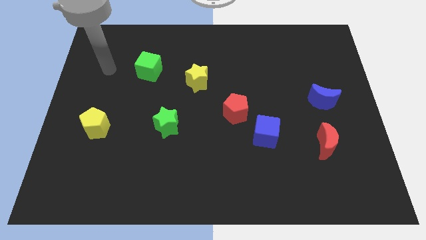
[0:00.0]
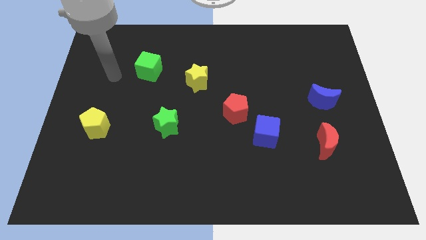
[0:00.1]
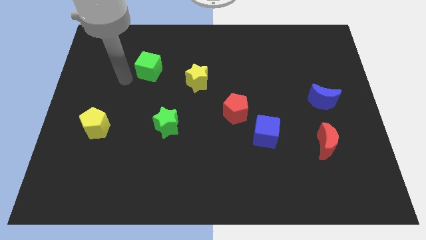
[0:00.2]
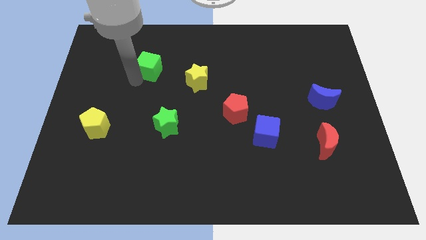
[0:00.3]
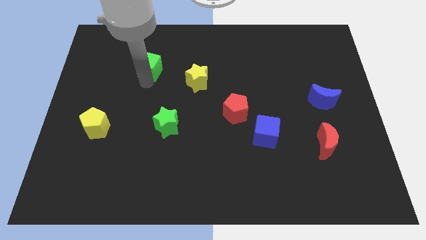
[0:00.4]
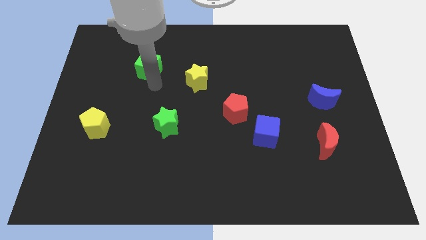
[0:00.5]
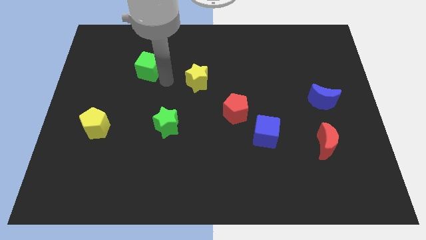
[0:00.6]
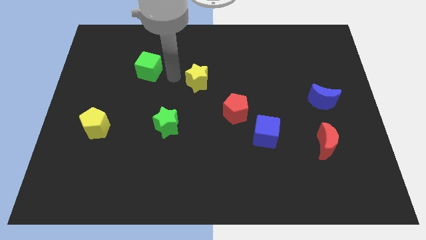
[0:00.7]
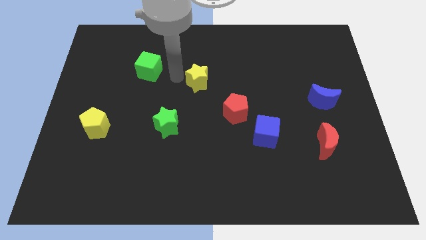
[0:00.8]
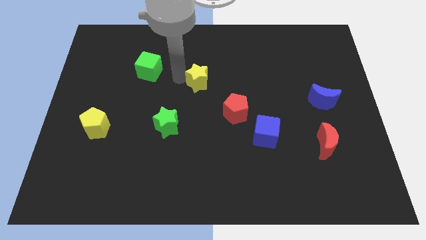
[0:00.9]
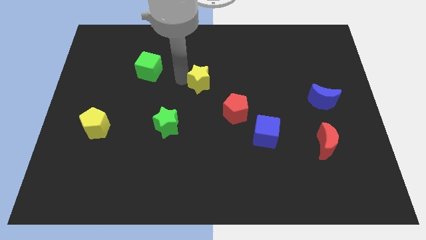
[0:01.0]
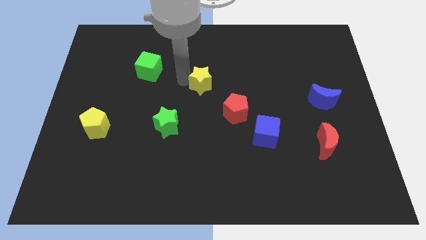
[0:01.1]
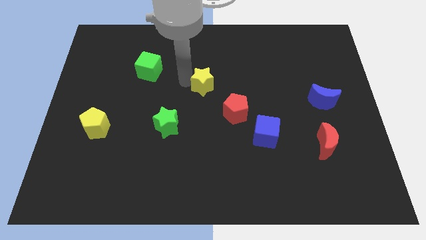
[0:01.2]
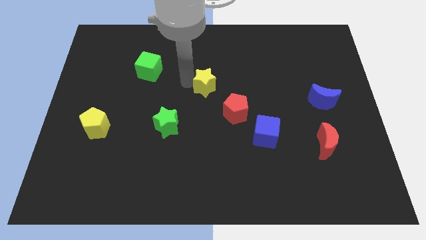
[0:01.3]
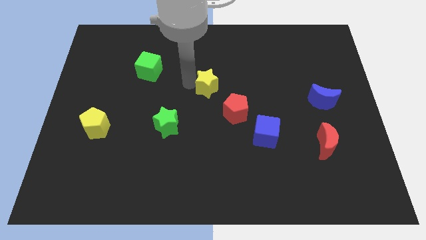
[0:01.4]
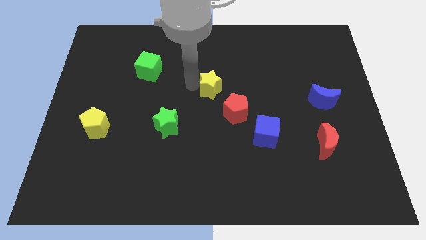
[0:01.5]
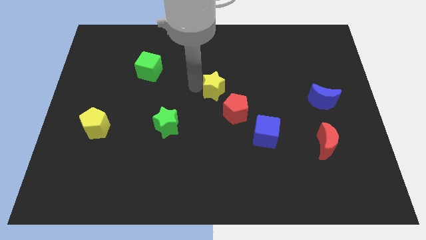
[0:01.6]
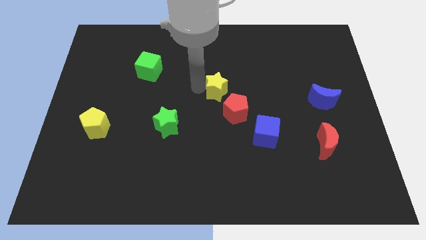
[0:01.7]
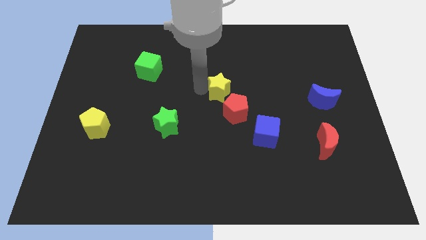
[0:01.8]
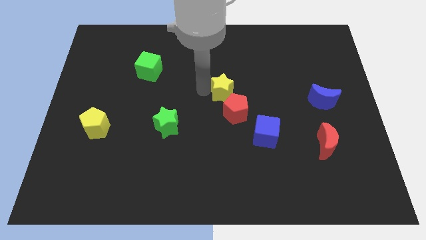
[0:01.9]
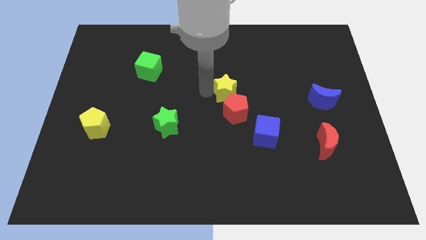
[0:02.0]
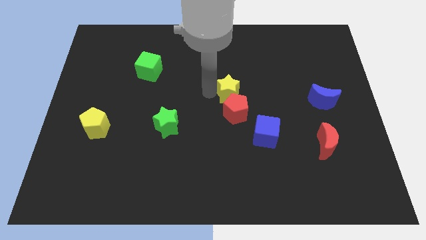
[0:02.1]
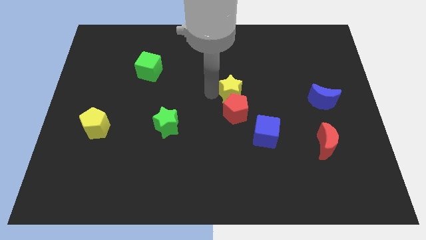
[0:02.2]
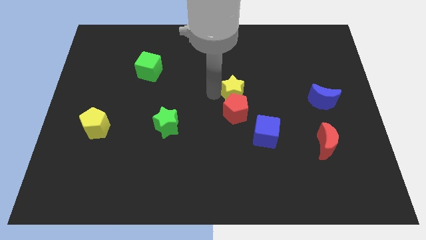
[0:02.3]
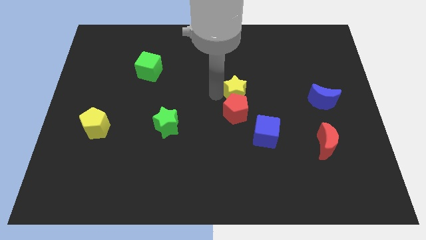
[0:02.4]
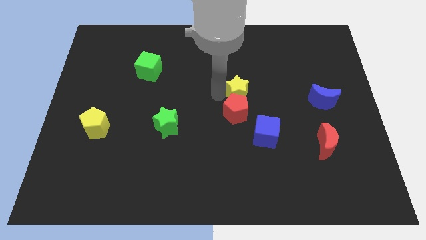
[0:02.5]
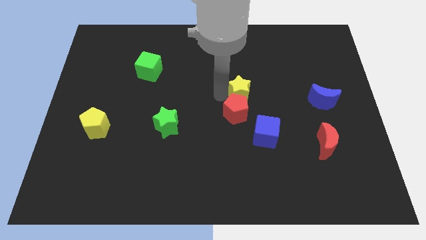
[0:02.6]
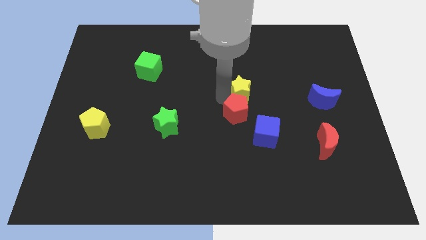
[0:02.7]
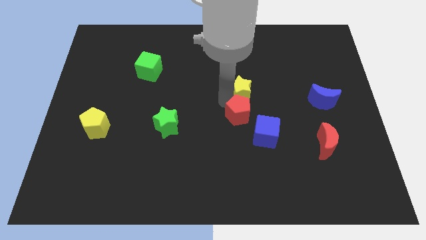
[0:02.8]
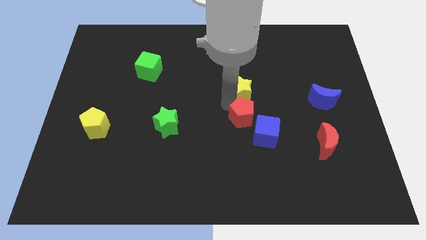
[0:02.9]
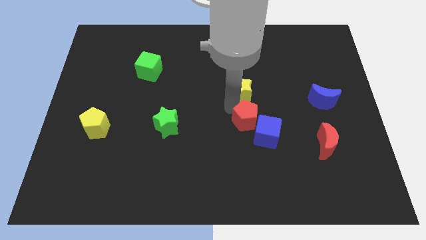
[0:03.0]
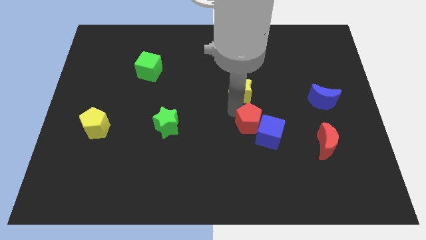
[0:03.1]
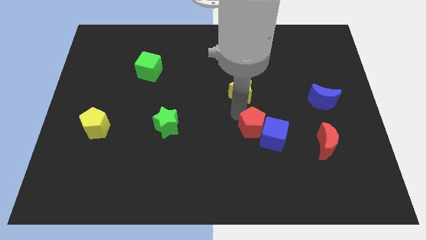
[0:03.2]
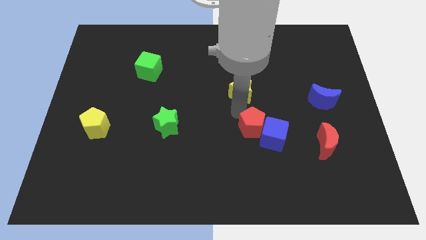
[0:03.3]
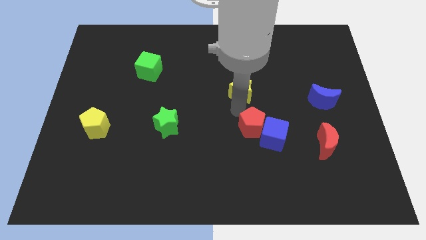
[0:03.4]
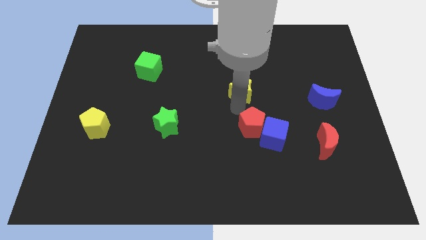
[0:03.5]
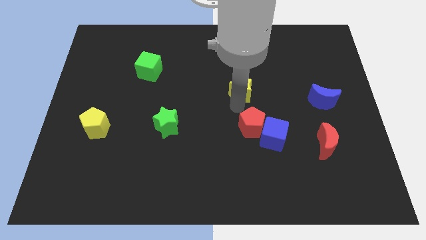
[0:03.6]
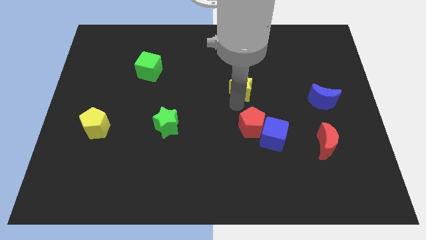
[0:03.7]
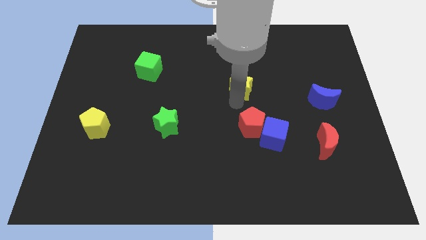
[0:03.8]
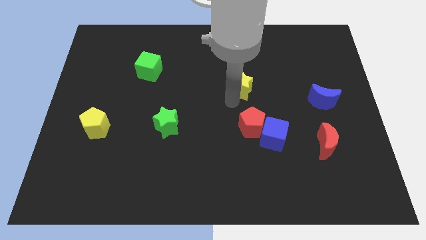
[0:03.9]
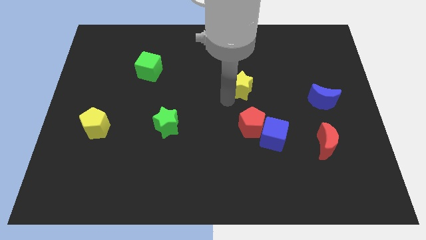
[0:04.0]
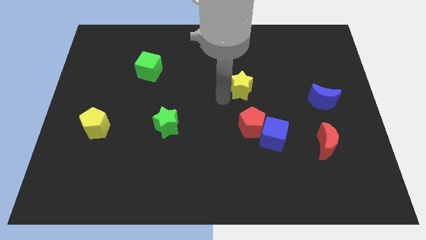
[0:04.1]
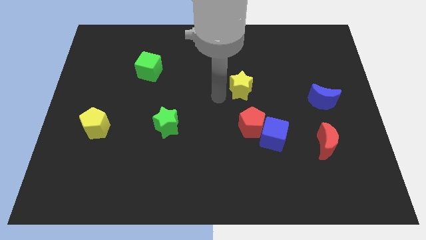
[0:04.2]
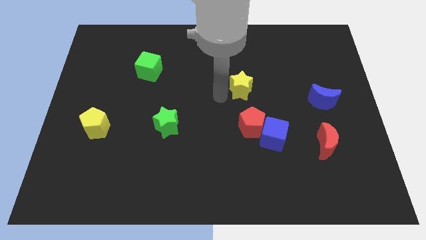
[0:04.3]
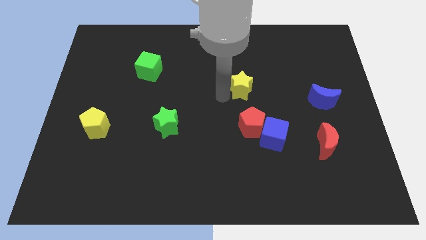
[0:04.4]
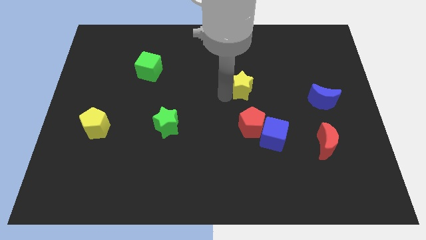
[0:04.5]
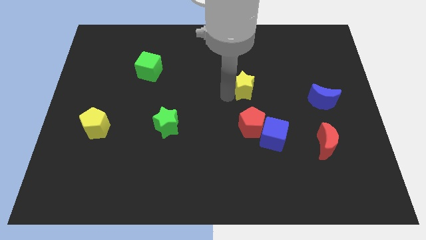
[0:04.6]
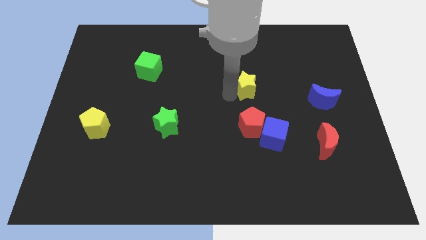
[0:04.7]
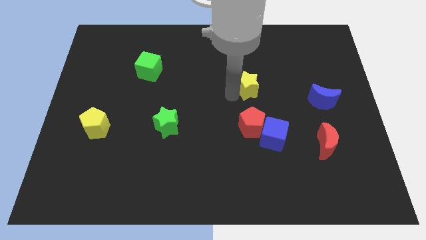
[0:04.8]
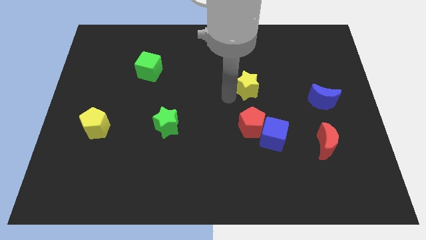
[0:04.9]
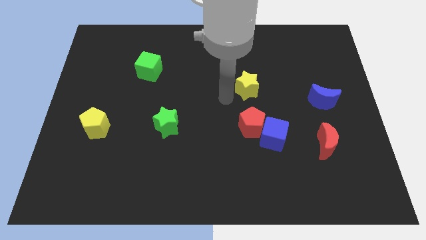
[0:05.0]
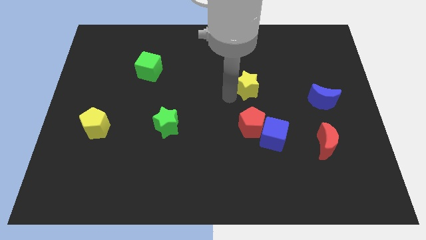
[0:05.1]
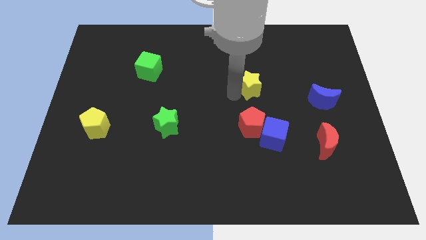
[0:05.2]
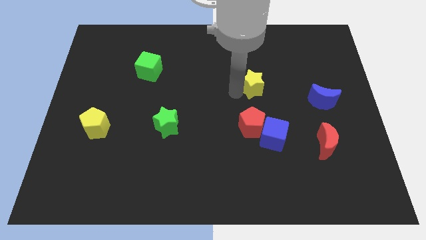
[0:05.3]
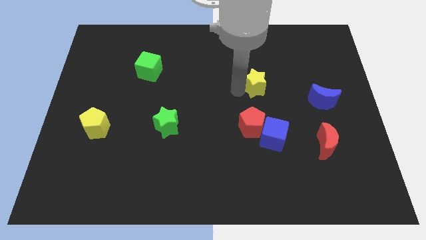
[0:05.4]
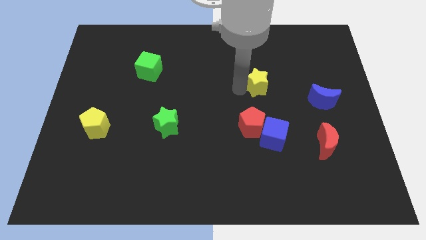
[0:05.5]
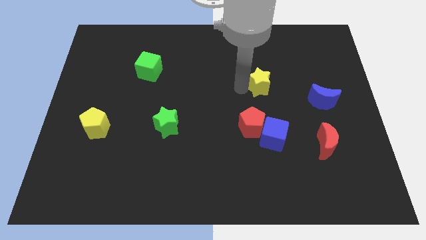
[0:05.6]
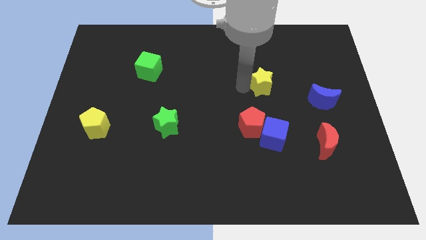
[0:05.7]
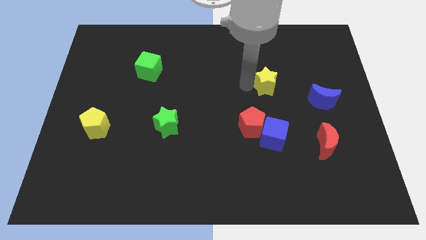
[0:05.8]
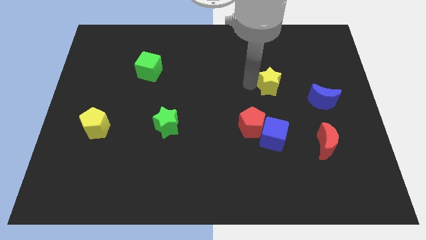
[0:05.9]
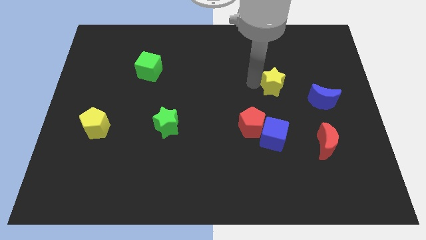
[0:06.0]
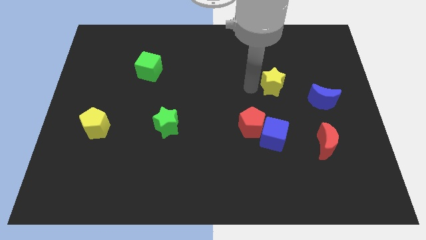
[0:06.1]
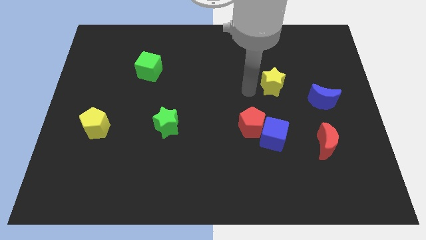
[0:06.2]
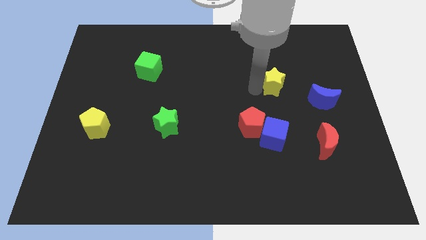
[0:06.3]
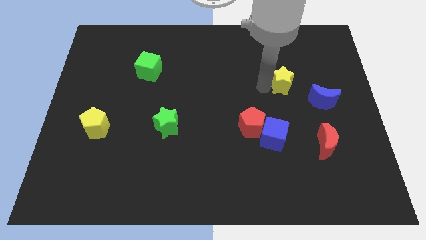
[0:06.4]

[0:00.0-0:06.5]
push the yellow star right

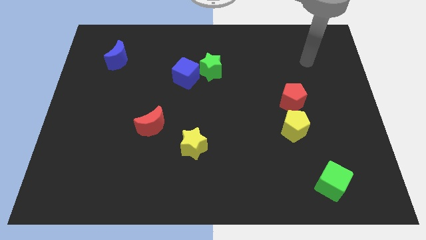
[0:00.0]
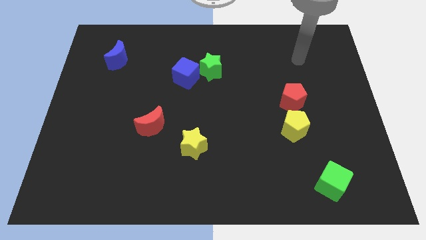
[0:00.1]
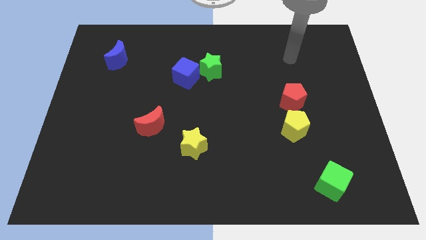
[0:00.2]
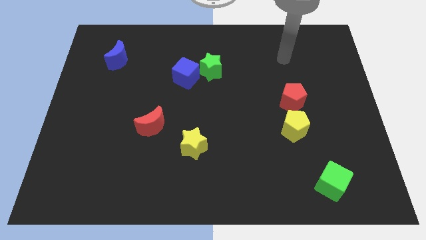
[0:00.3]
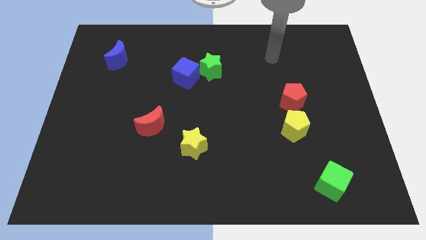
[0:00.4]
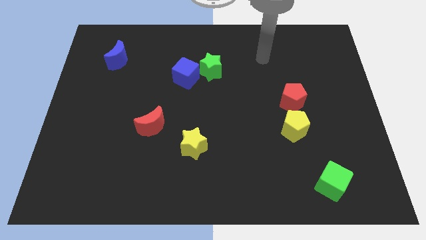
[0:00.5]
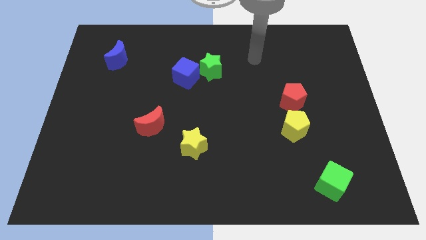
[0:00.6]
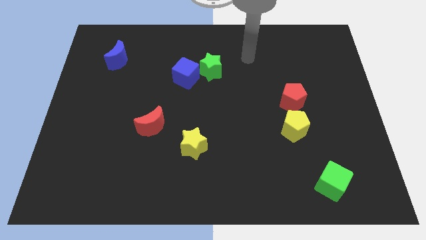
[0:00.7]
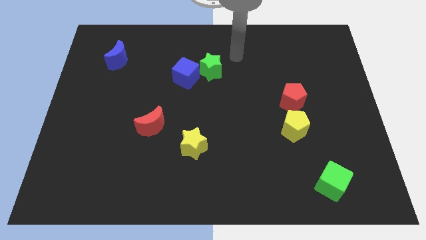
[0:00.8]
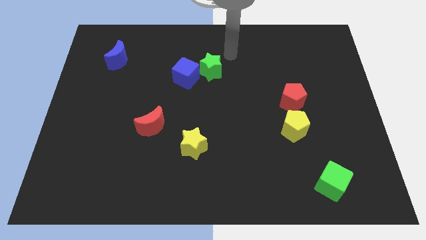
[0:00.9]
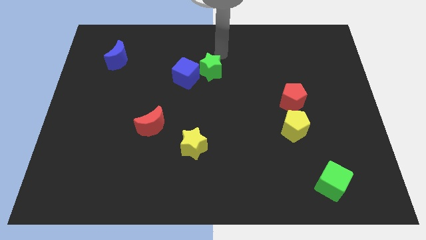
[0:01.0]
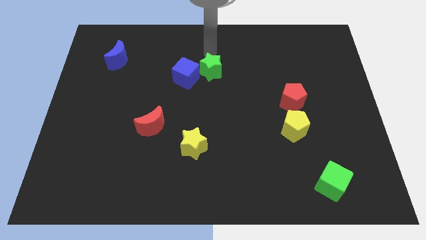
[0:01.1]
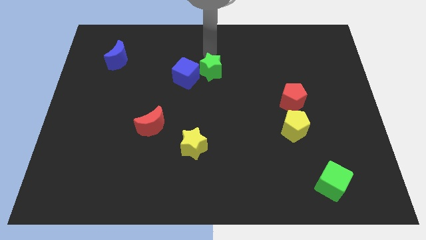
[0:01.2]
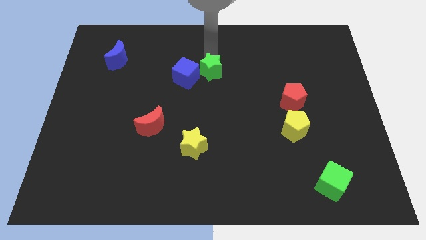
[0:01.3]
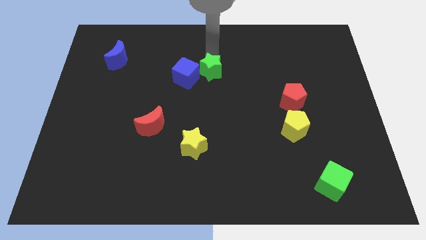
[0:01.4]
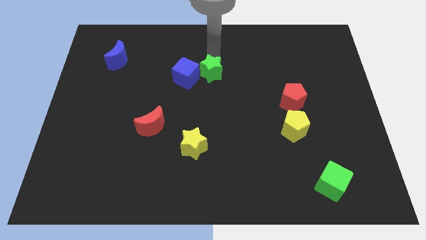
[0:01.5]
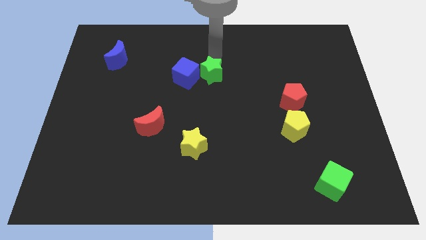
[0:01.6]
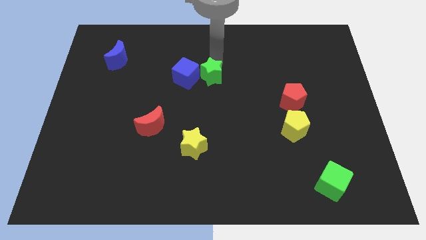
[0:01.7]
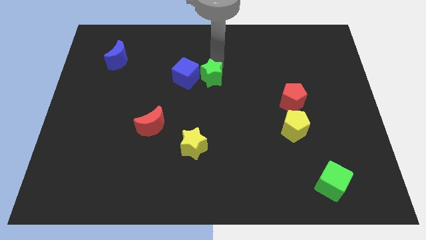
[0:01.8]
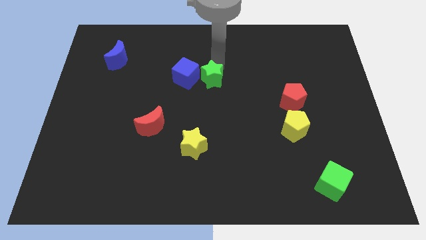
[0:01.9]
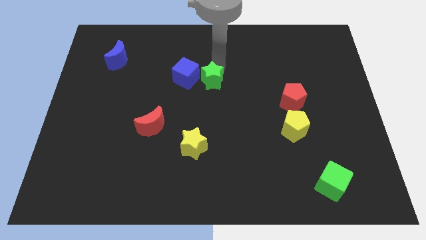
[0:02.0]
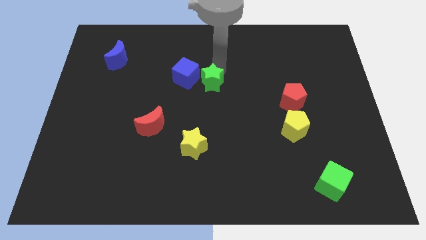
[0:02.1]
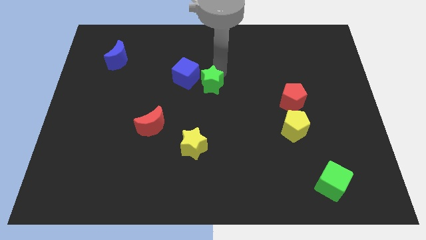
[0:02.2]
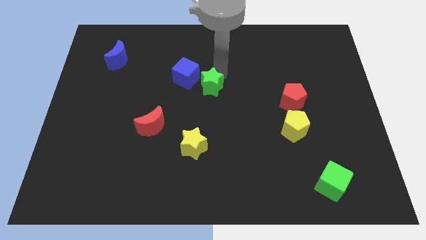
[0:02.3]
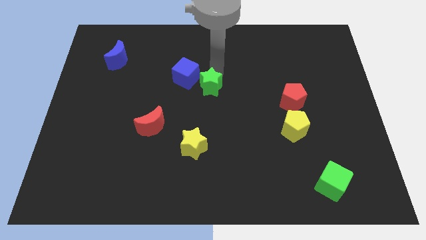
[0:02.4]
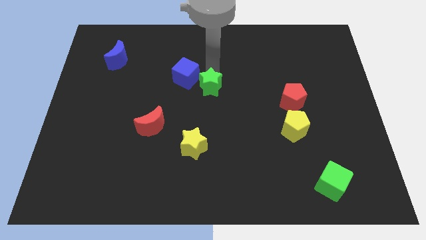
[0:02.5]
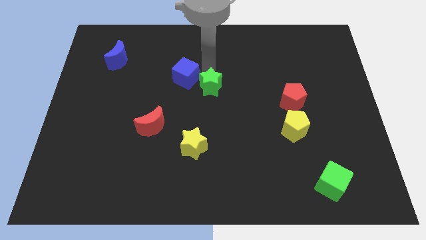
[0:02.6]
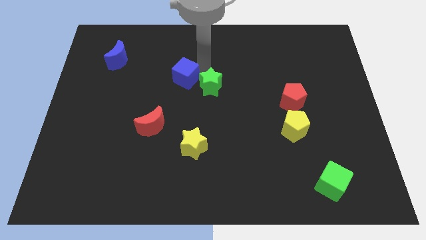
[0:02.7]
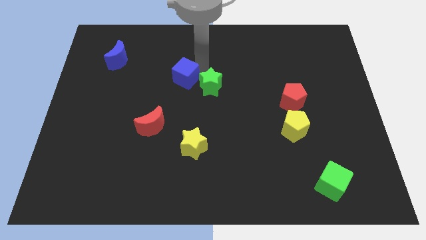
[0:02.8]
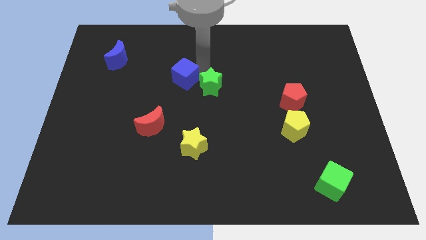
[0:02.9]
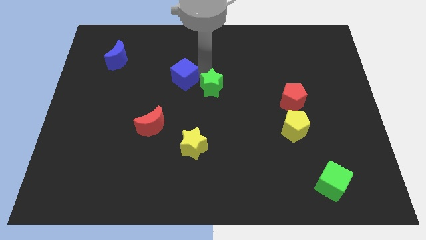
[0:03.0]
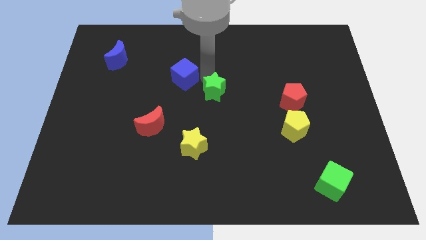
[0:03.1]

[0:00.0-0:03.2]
push the green star downwards slightly
